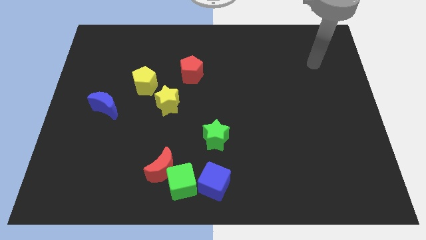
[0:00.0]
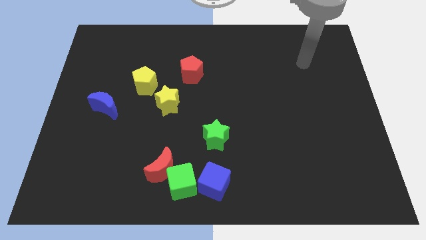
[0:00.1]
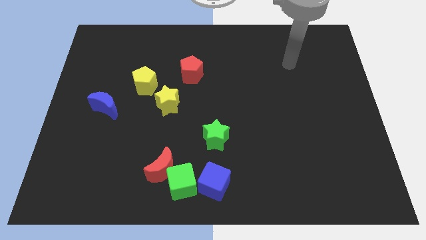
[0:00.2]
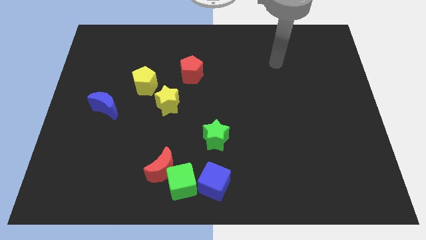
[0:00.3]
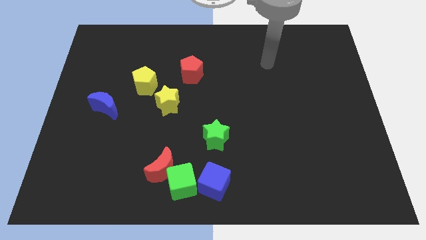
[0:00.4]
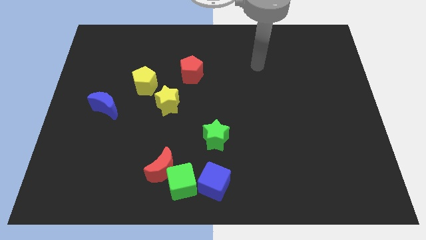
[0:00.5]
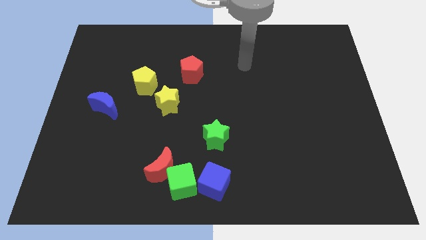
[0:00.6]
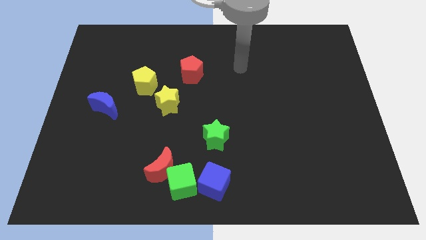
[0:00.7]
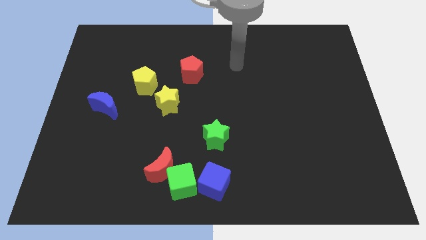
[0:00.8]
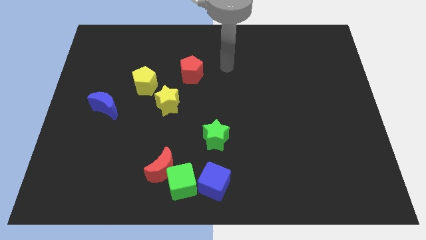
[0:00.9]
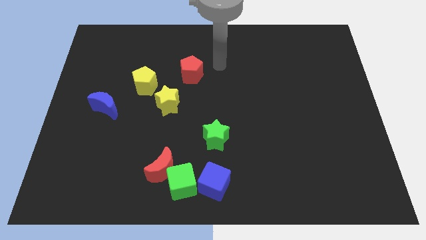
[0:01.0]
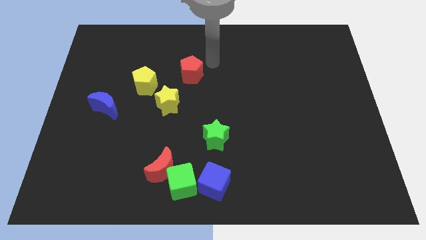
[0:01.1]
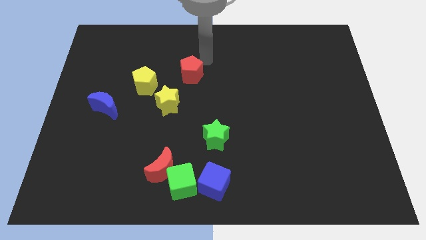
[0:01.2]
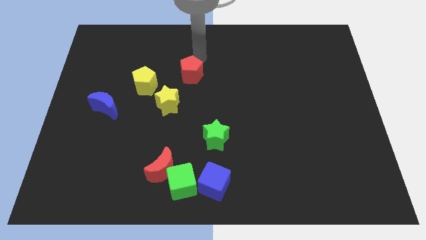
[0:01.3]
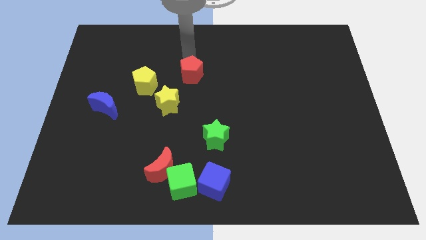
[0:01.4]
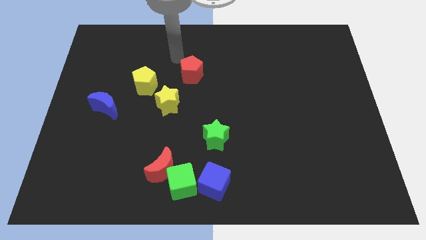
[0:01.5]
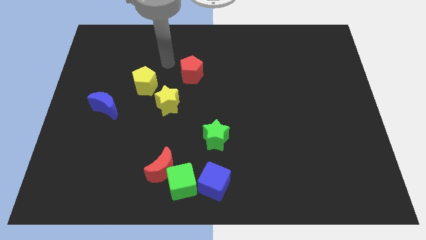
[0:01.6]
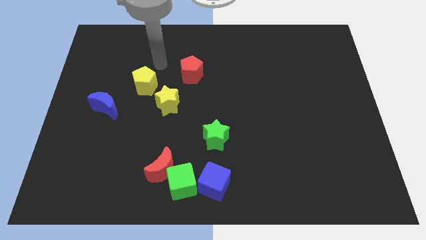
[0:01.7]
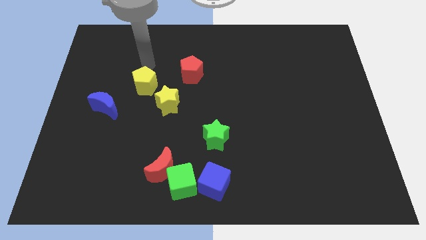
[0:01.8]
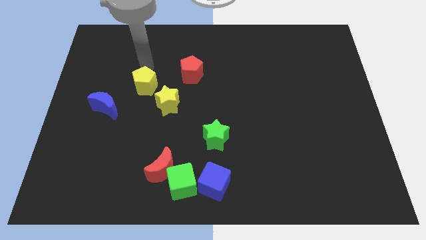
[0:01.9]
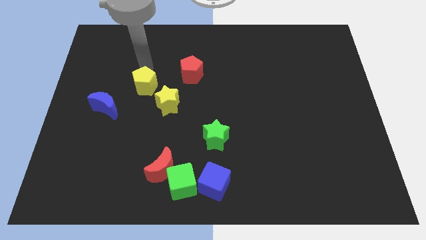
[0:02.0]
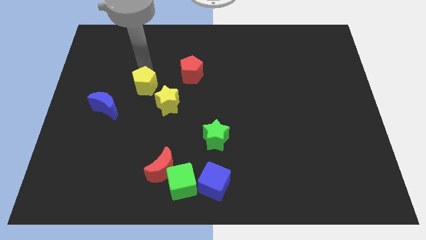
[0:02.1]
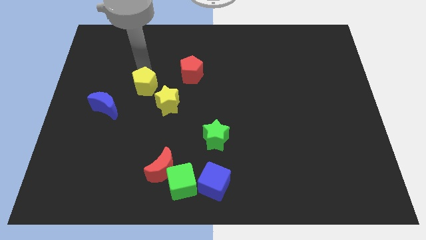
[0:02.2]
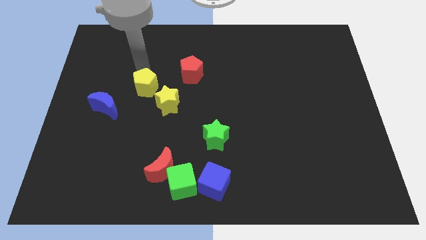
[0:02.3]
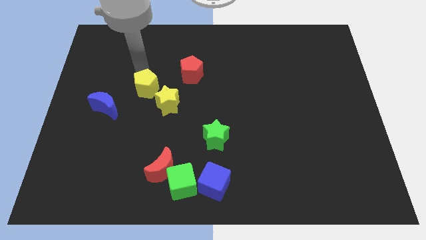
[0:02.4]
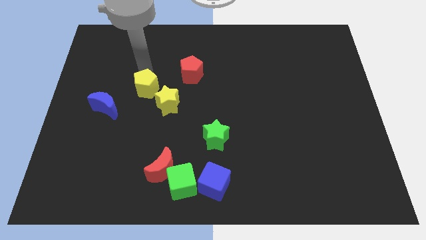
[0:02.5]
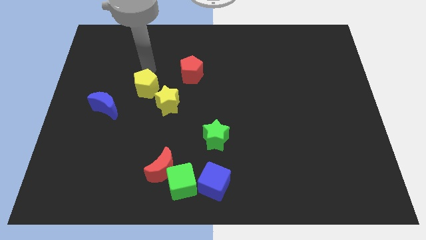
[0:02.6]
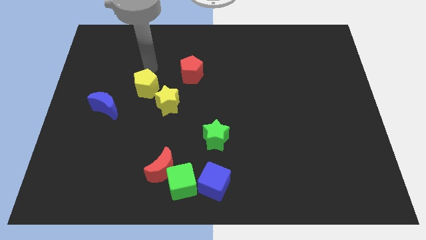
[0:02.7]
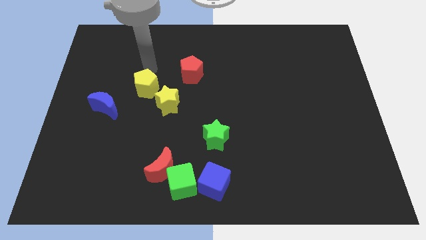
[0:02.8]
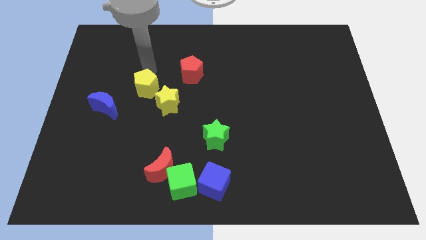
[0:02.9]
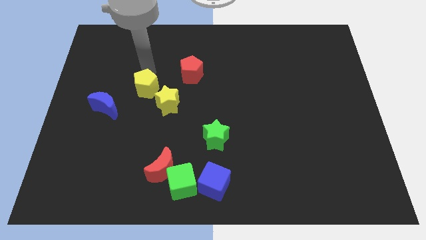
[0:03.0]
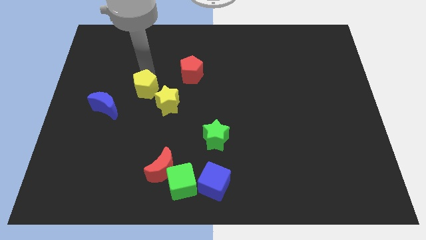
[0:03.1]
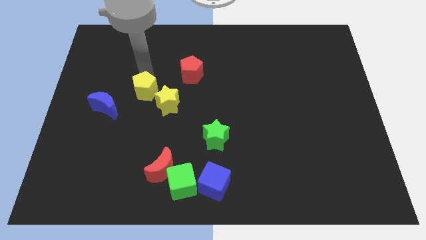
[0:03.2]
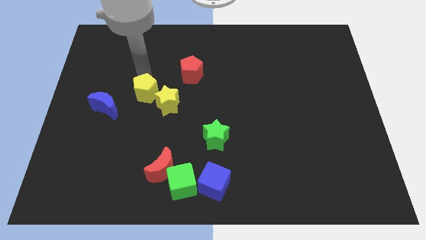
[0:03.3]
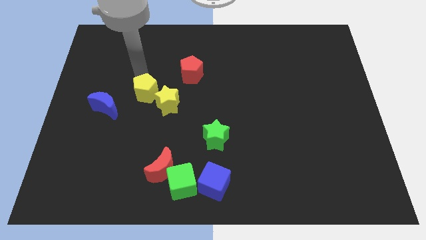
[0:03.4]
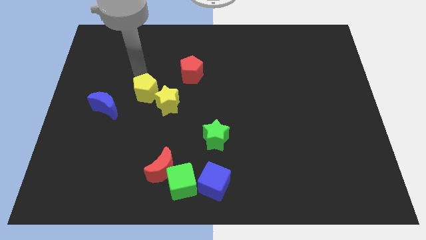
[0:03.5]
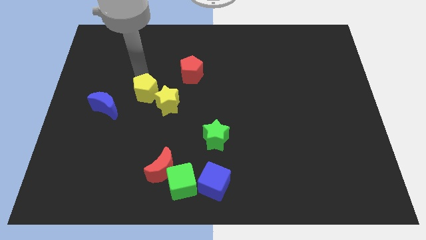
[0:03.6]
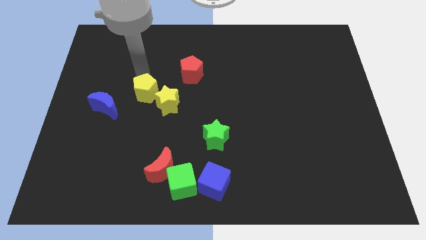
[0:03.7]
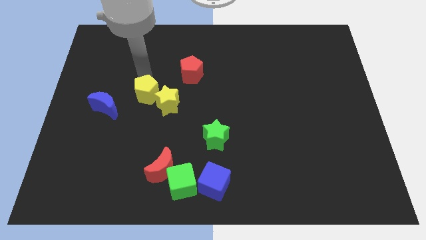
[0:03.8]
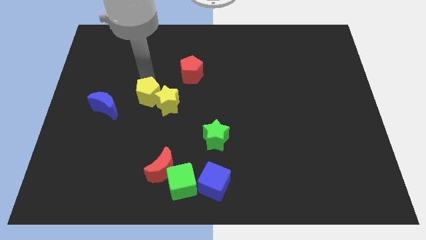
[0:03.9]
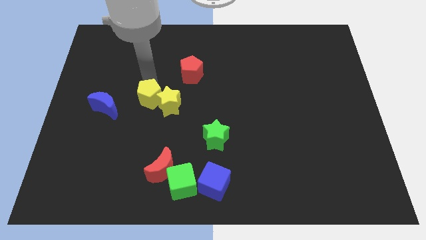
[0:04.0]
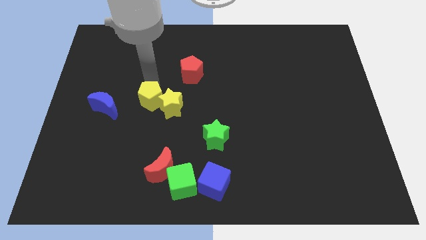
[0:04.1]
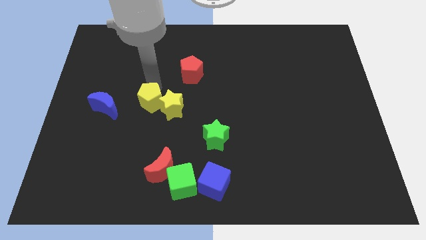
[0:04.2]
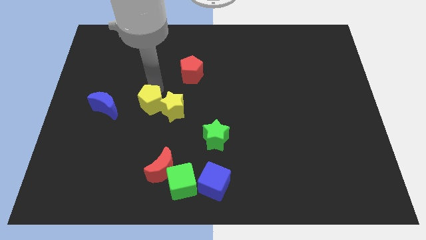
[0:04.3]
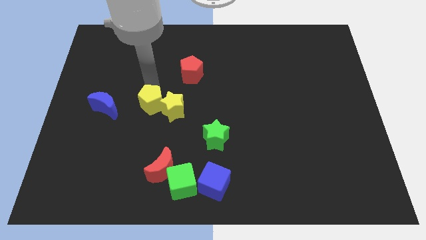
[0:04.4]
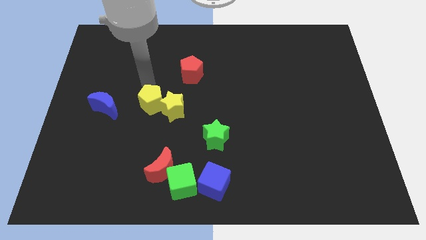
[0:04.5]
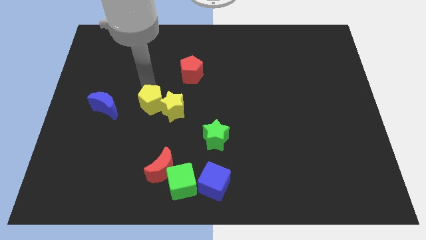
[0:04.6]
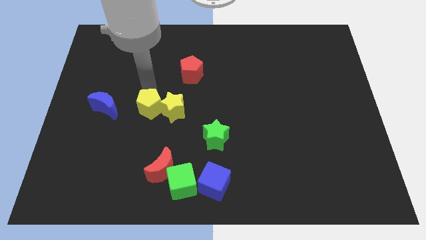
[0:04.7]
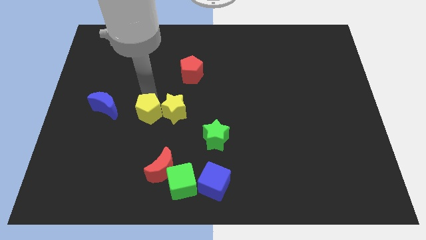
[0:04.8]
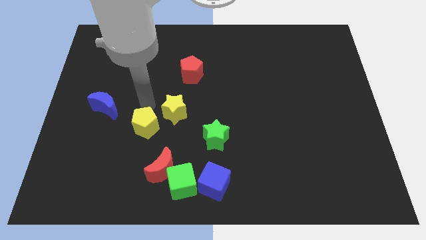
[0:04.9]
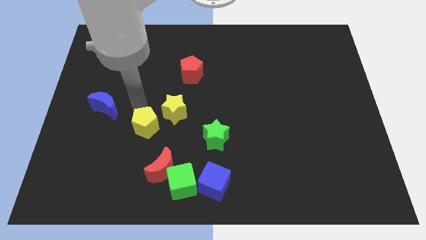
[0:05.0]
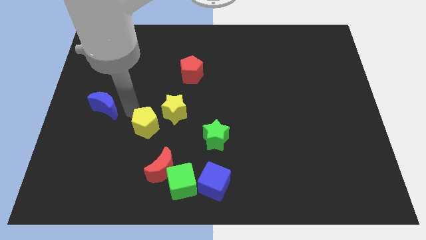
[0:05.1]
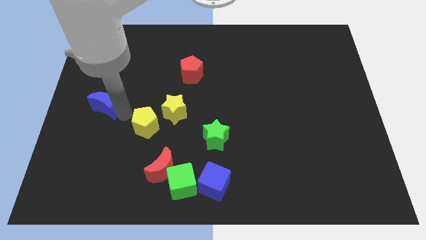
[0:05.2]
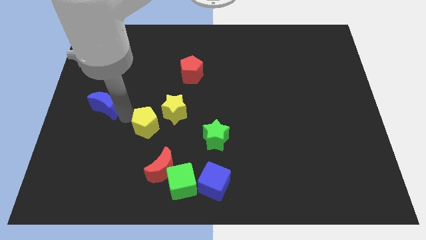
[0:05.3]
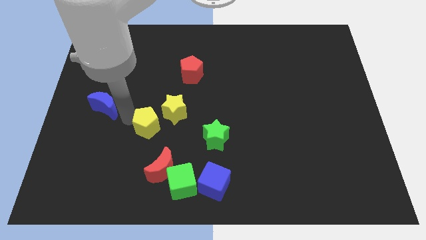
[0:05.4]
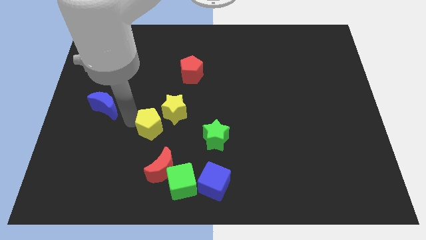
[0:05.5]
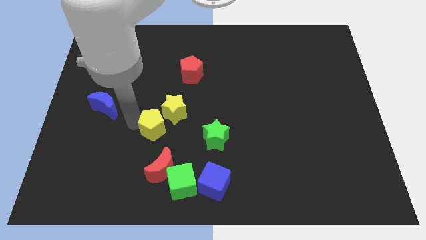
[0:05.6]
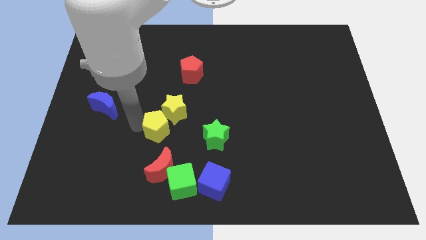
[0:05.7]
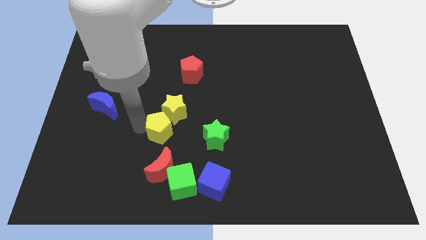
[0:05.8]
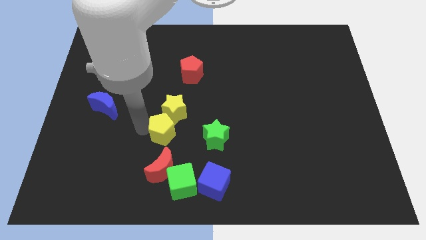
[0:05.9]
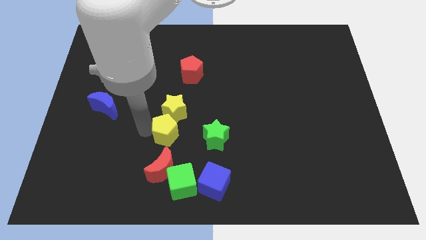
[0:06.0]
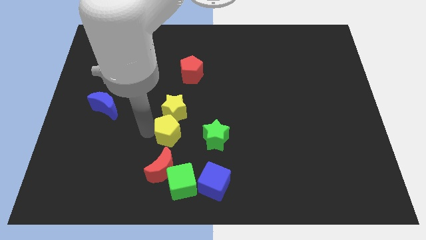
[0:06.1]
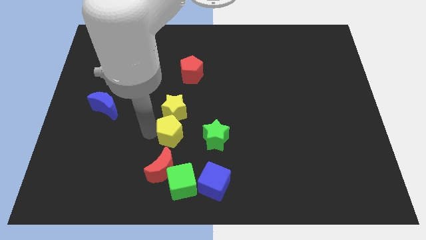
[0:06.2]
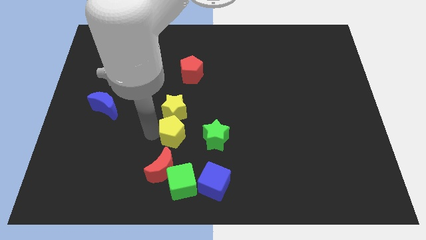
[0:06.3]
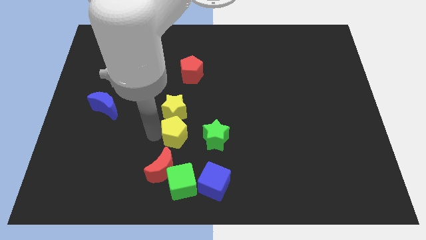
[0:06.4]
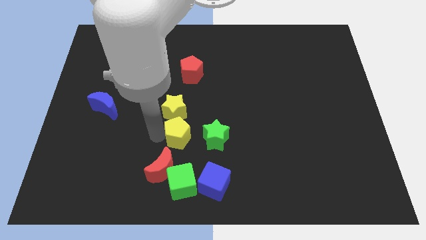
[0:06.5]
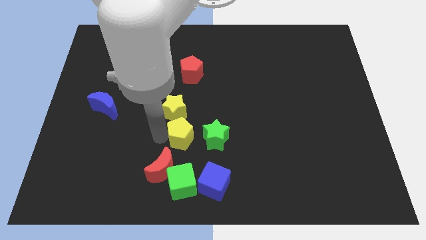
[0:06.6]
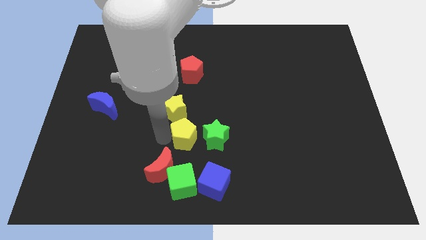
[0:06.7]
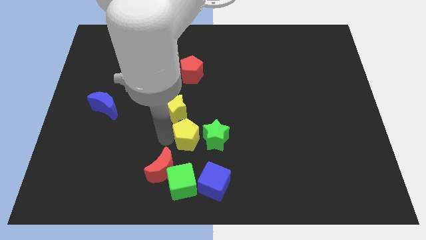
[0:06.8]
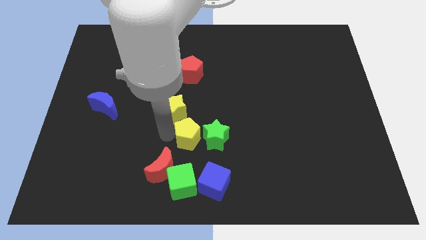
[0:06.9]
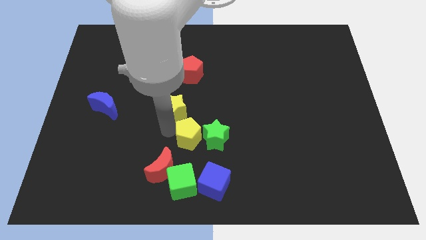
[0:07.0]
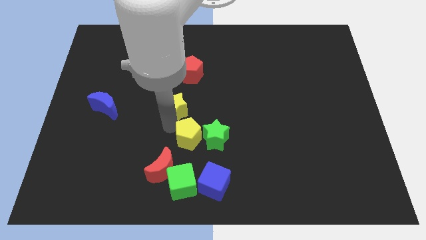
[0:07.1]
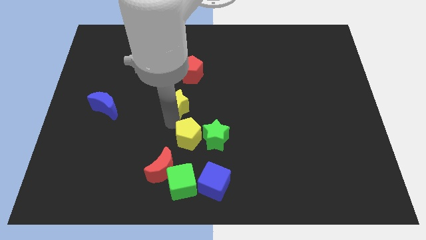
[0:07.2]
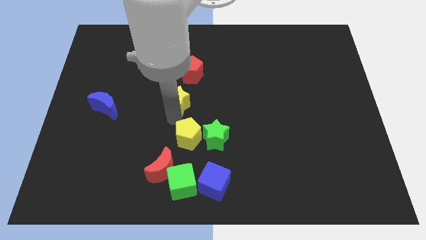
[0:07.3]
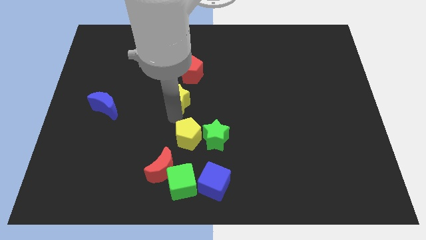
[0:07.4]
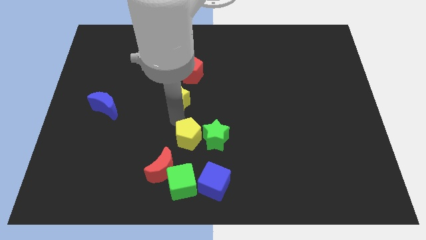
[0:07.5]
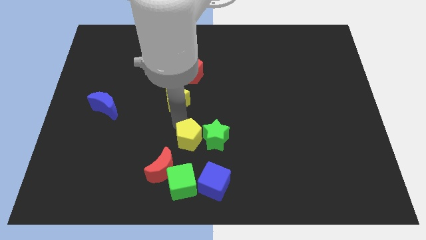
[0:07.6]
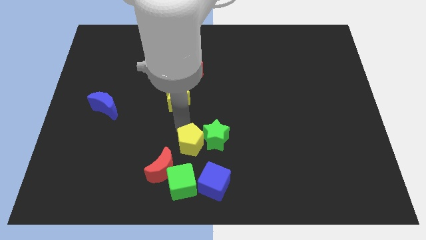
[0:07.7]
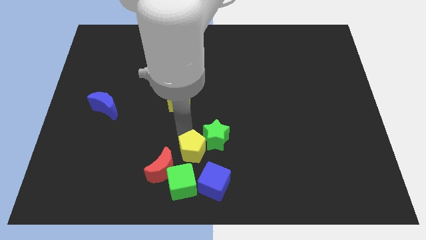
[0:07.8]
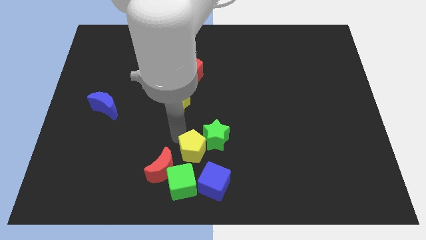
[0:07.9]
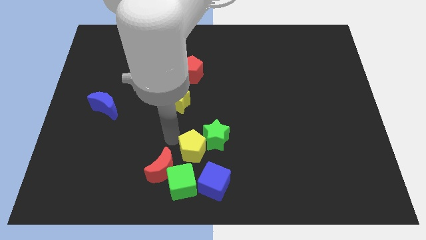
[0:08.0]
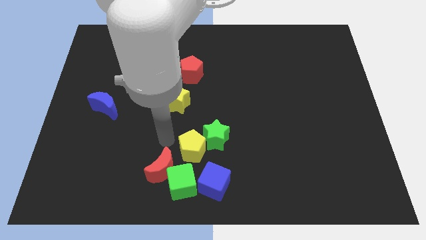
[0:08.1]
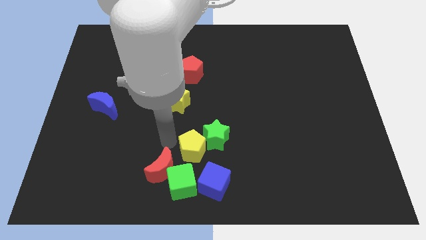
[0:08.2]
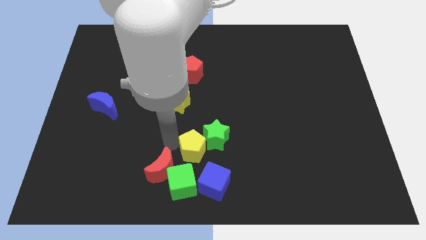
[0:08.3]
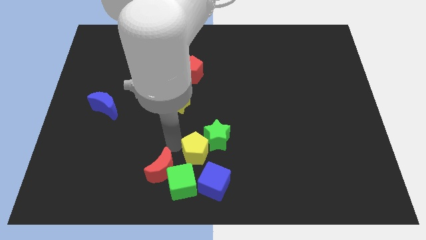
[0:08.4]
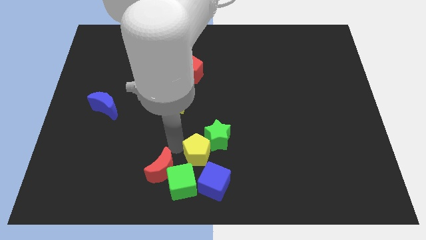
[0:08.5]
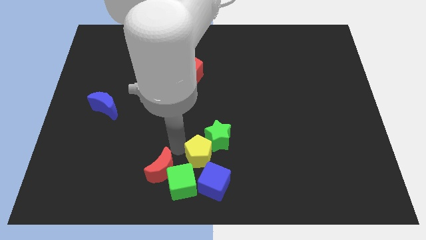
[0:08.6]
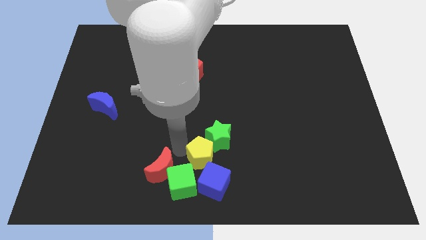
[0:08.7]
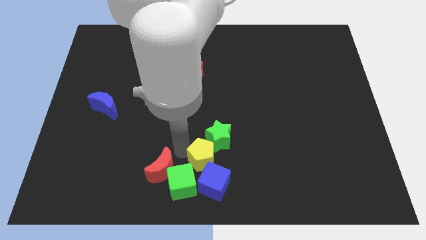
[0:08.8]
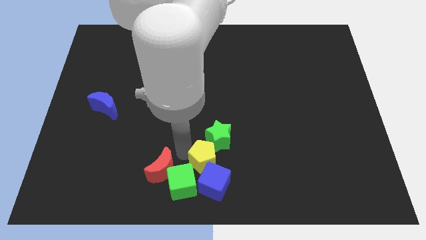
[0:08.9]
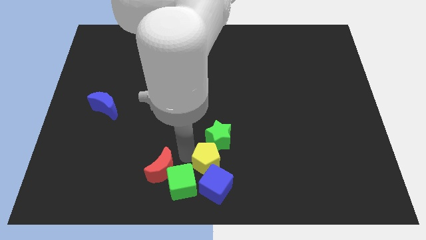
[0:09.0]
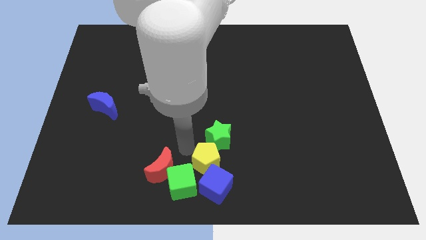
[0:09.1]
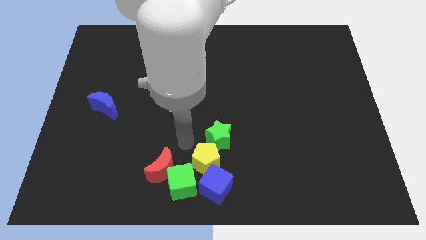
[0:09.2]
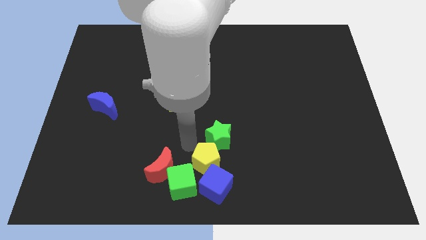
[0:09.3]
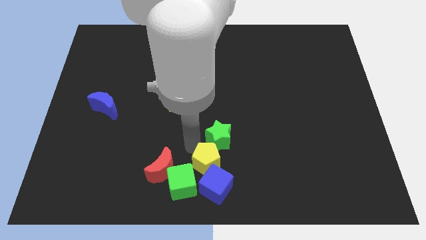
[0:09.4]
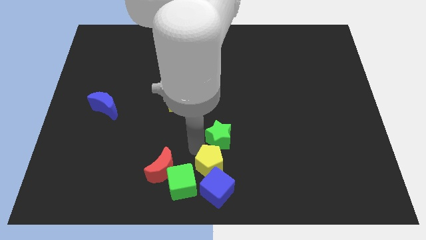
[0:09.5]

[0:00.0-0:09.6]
slide the yellow pentagon to the right side of the green cube
